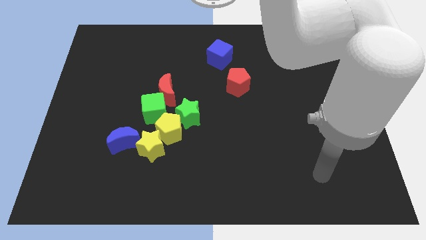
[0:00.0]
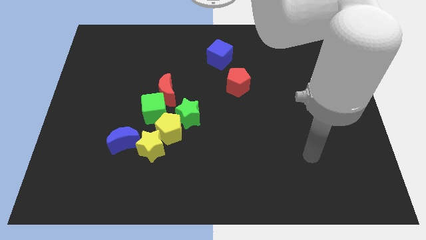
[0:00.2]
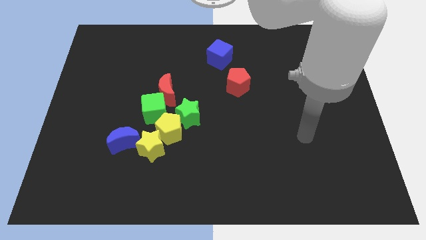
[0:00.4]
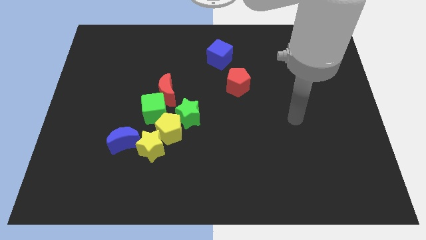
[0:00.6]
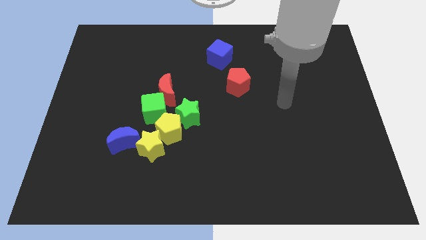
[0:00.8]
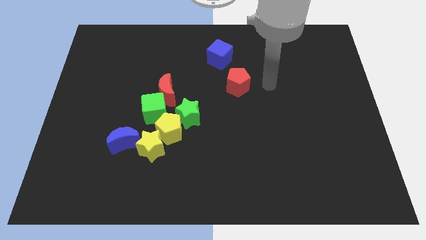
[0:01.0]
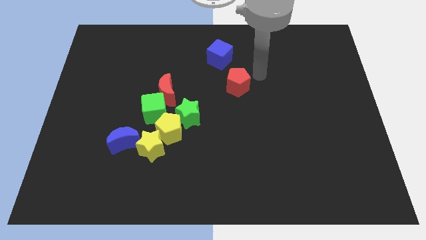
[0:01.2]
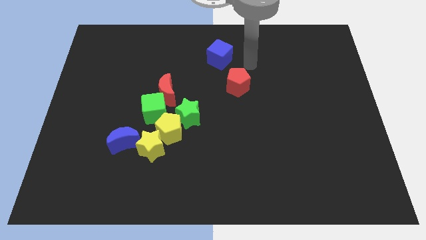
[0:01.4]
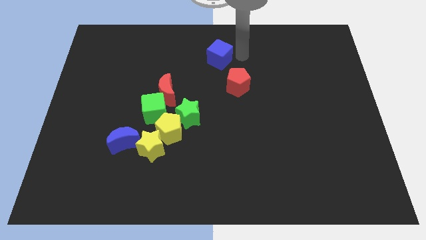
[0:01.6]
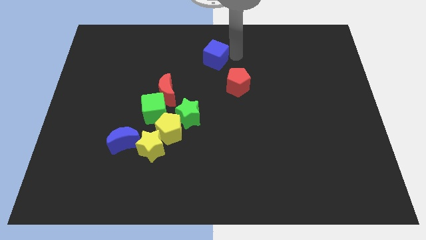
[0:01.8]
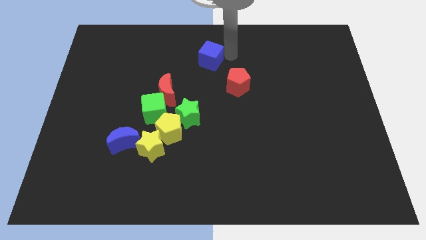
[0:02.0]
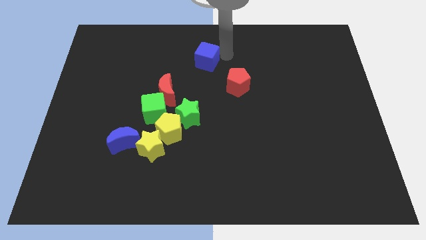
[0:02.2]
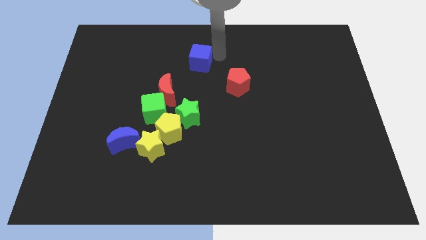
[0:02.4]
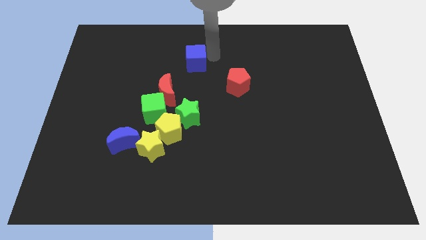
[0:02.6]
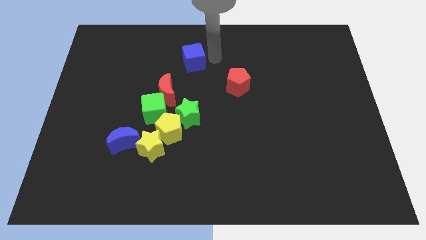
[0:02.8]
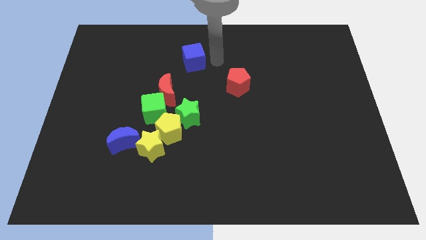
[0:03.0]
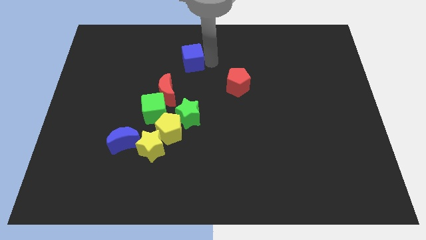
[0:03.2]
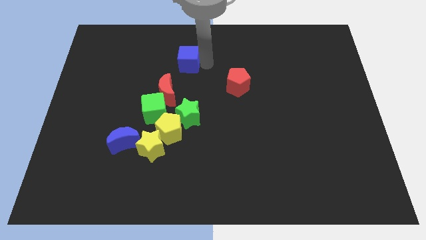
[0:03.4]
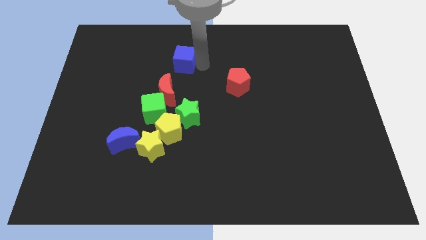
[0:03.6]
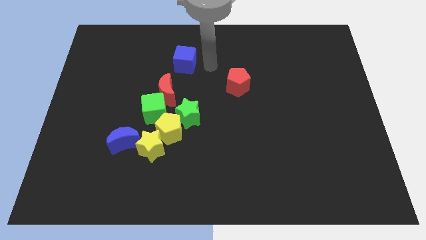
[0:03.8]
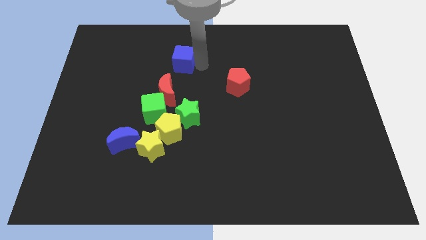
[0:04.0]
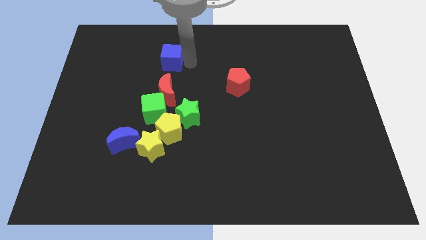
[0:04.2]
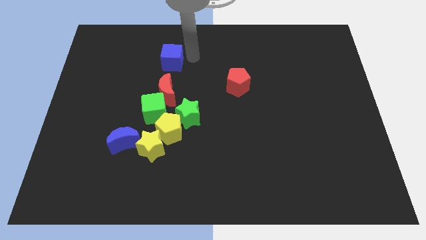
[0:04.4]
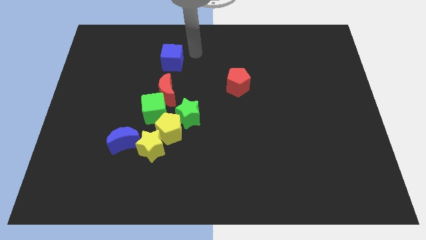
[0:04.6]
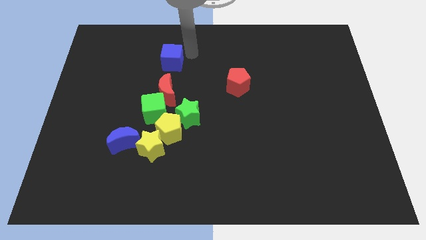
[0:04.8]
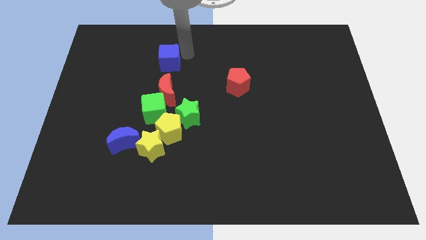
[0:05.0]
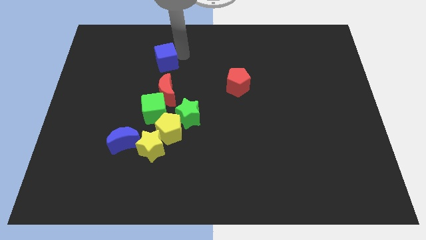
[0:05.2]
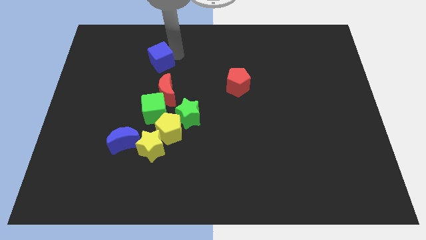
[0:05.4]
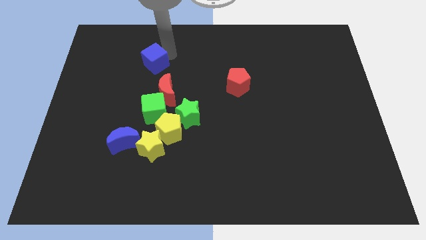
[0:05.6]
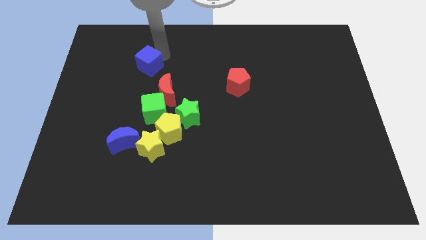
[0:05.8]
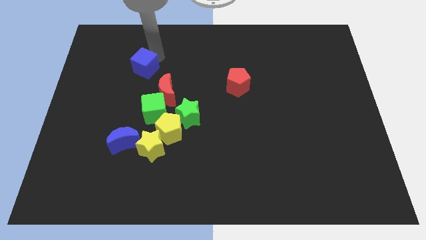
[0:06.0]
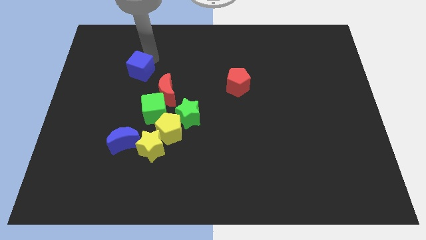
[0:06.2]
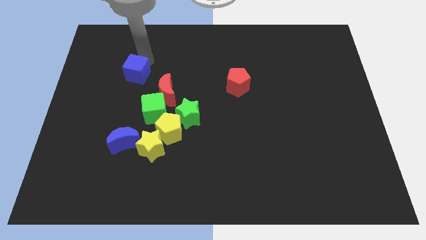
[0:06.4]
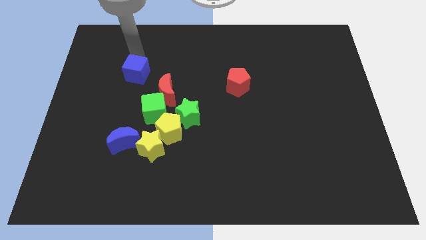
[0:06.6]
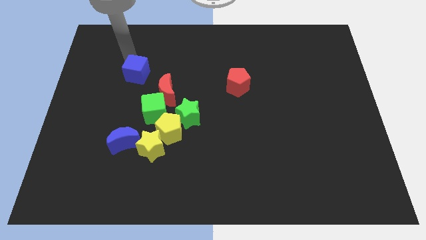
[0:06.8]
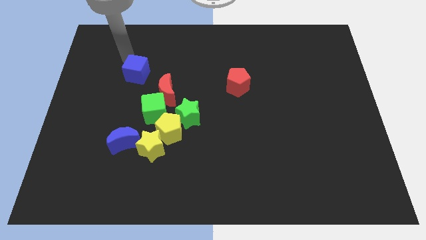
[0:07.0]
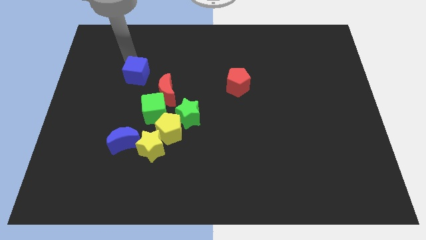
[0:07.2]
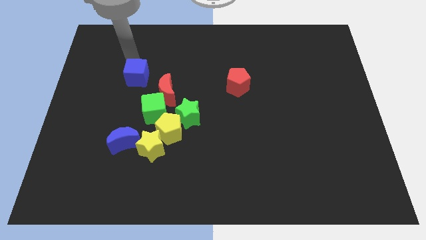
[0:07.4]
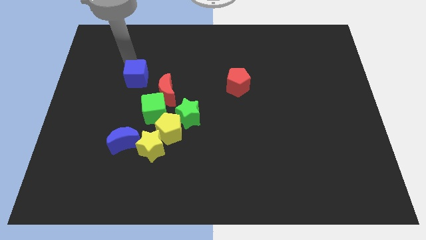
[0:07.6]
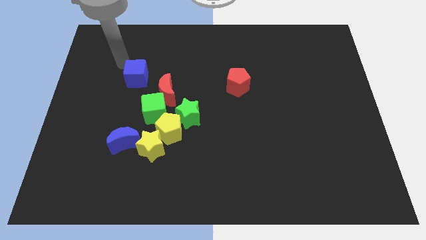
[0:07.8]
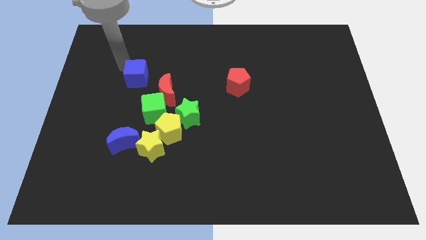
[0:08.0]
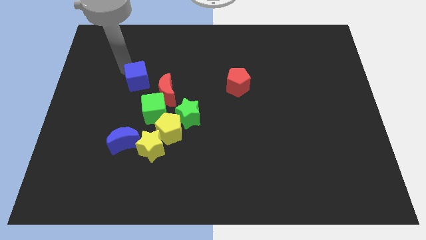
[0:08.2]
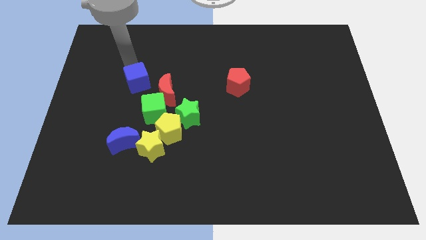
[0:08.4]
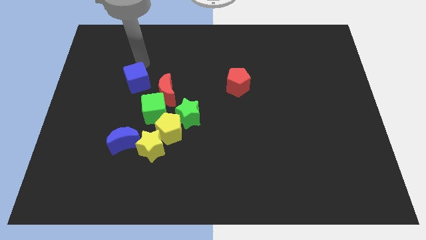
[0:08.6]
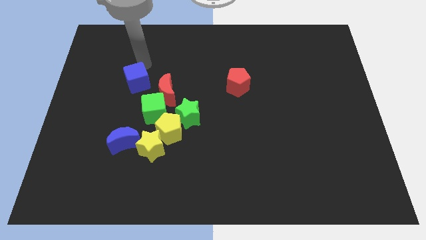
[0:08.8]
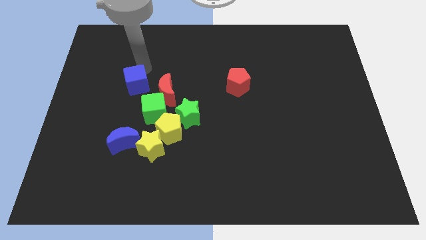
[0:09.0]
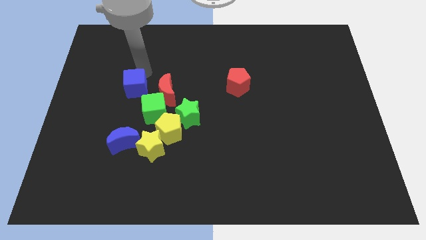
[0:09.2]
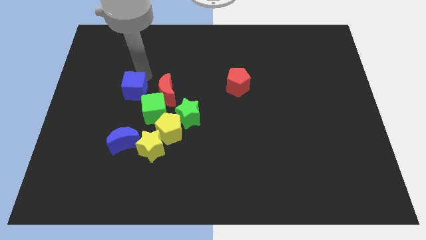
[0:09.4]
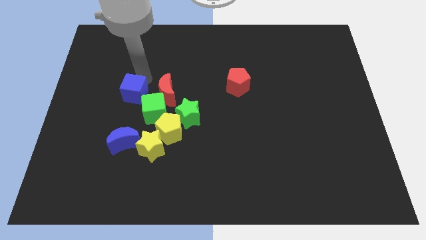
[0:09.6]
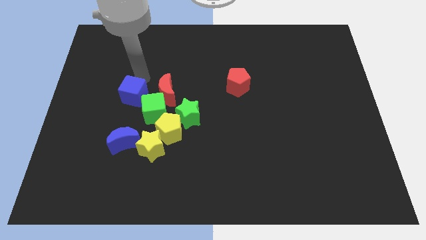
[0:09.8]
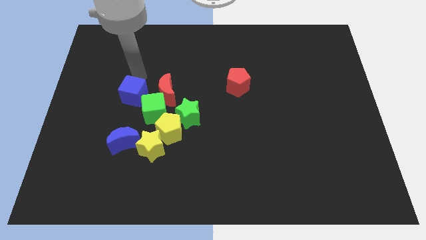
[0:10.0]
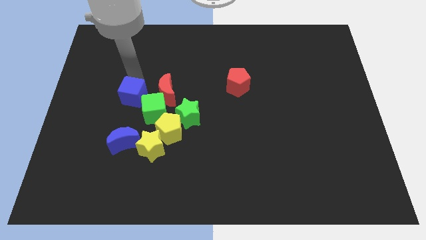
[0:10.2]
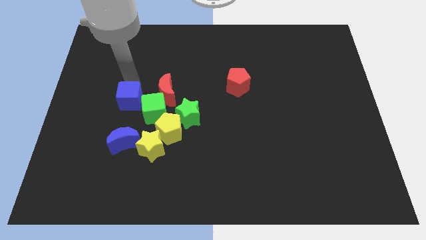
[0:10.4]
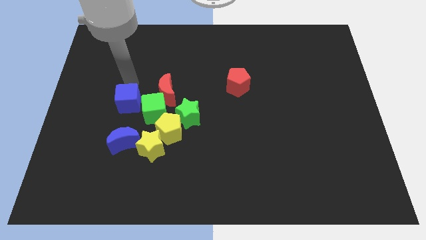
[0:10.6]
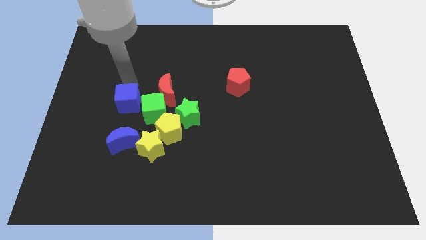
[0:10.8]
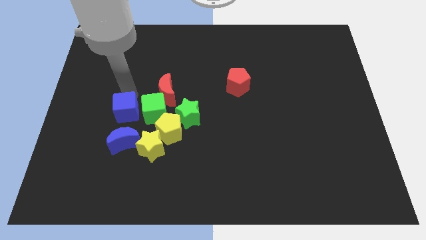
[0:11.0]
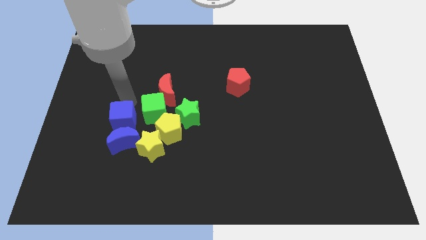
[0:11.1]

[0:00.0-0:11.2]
push the blue cube towards the blue moon

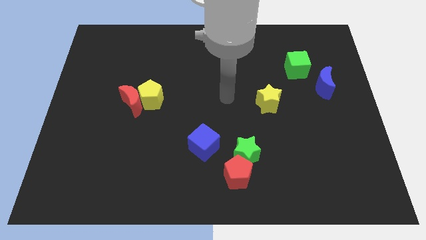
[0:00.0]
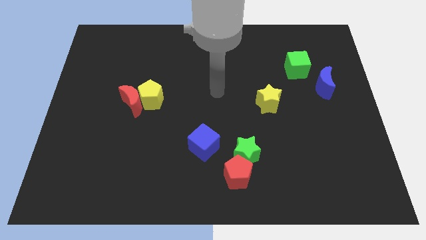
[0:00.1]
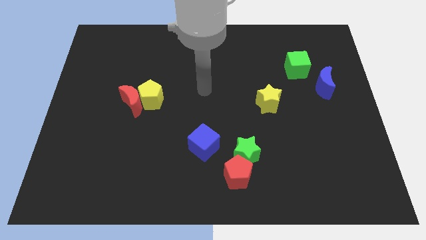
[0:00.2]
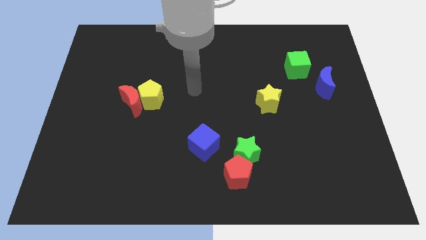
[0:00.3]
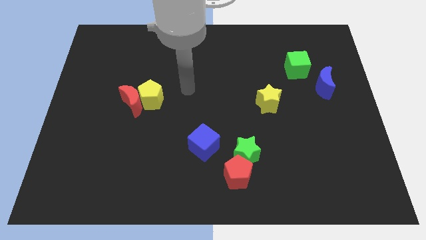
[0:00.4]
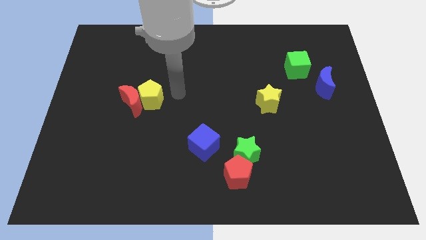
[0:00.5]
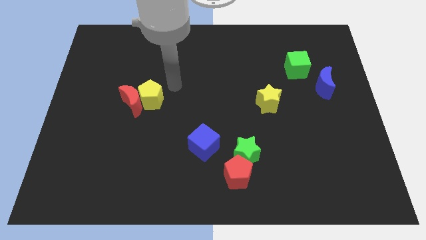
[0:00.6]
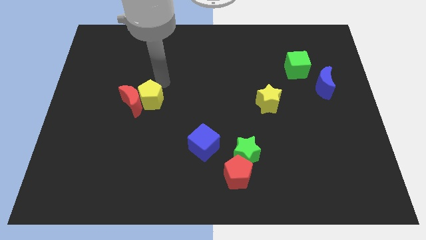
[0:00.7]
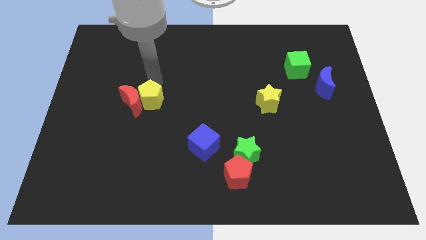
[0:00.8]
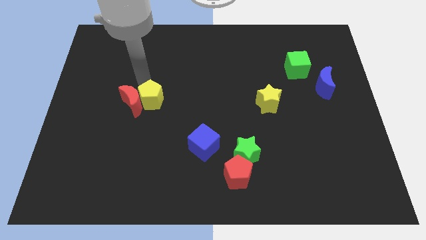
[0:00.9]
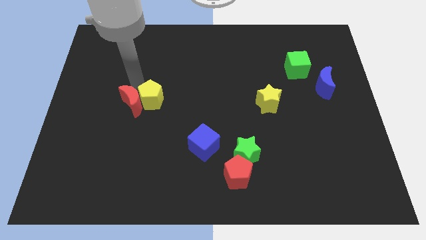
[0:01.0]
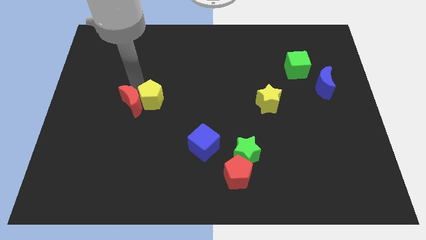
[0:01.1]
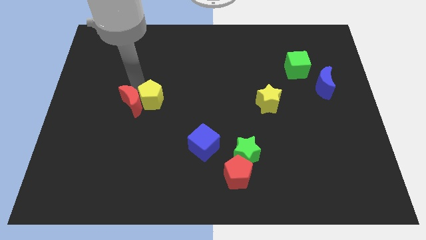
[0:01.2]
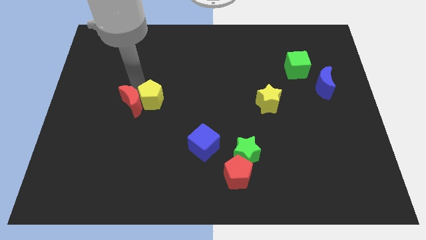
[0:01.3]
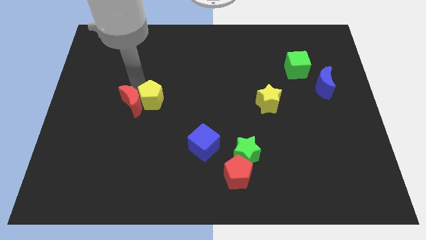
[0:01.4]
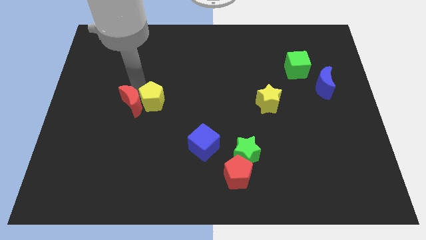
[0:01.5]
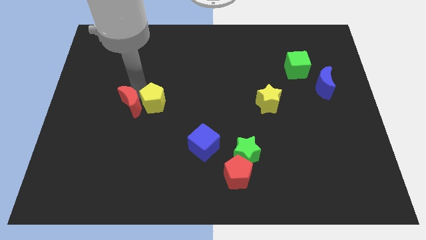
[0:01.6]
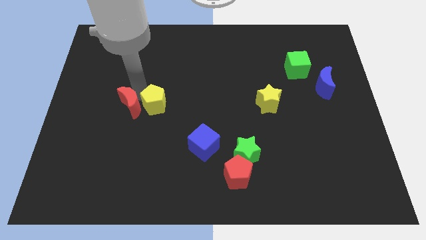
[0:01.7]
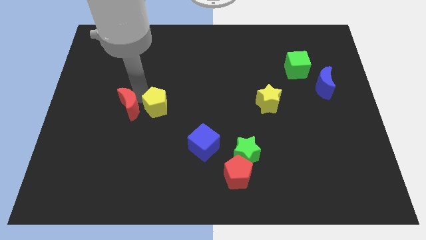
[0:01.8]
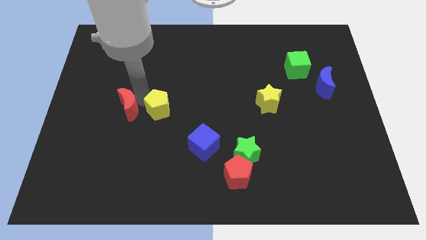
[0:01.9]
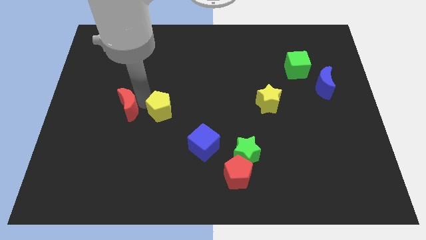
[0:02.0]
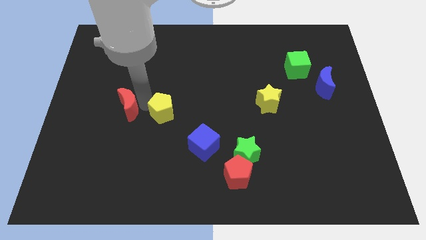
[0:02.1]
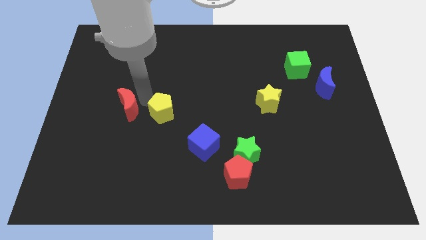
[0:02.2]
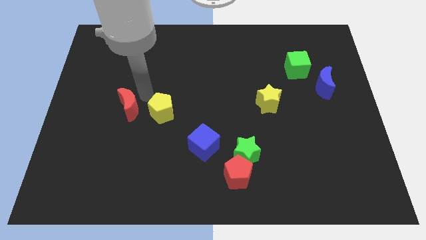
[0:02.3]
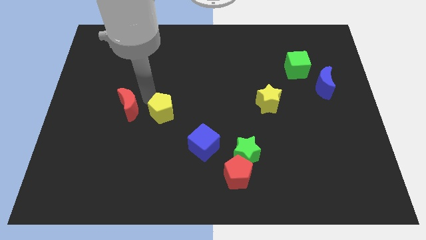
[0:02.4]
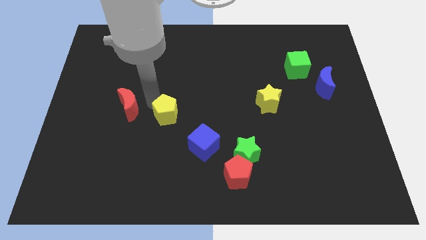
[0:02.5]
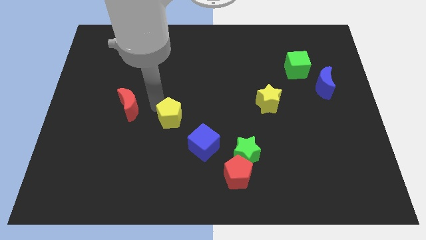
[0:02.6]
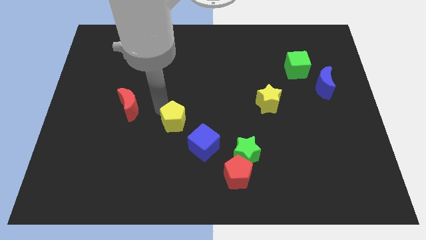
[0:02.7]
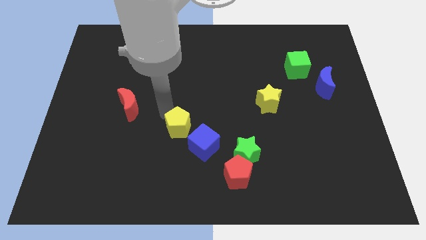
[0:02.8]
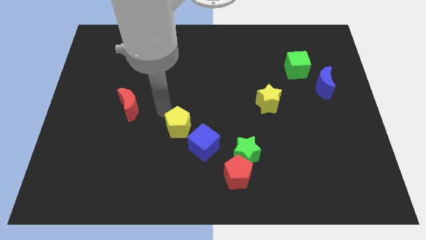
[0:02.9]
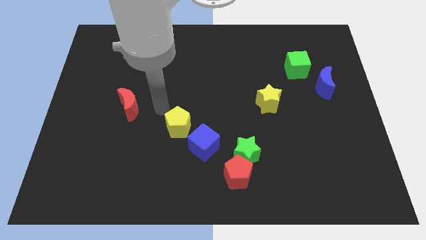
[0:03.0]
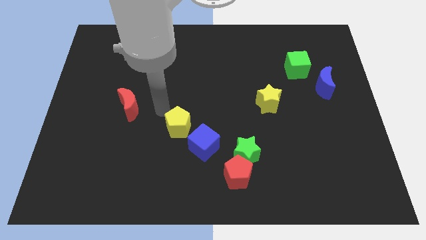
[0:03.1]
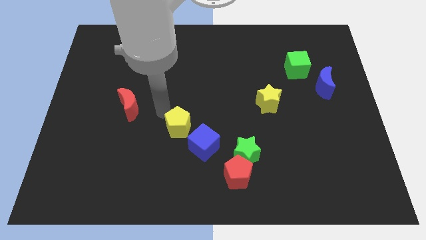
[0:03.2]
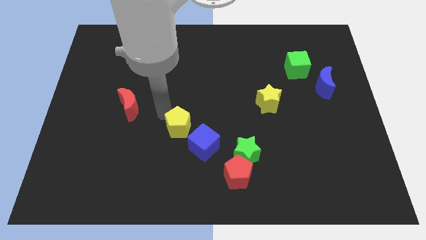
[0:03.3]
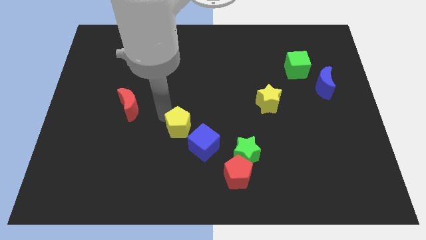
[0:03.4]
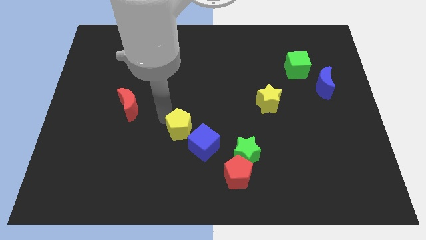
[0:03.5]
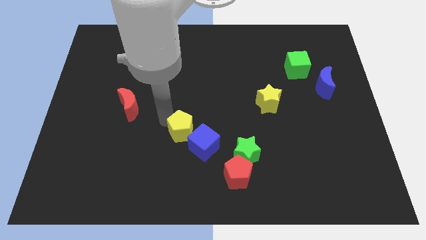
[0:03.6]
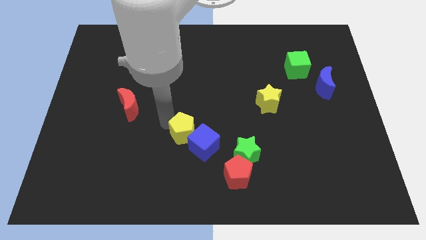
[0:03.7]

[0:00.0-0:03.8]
put the yellow pentagon next to the blue cube
